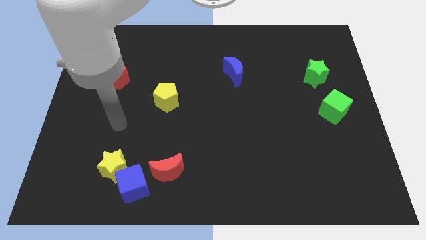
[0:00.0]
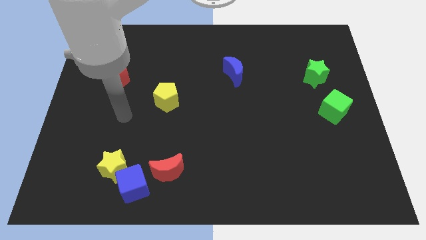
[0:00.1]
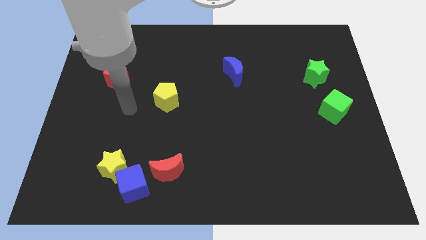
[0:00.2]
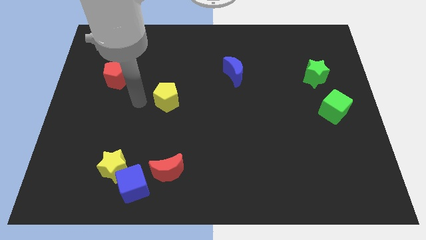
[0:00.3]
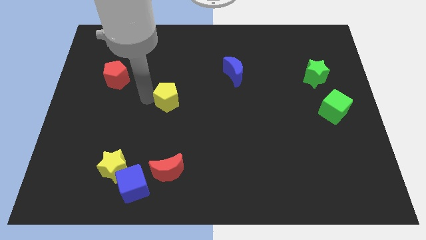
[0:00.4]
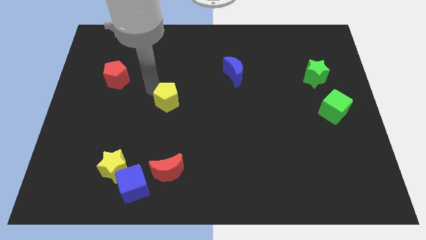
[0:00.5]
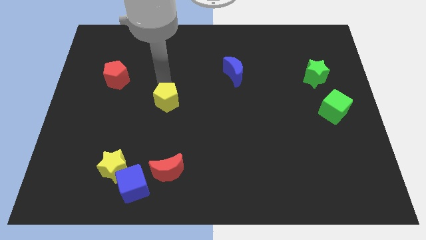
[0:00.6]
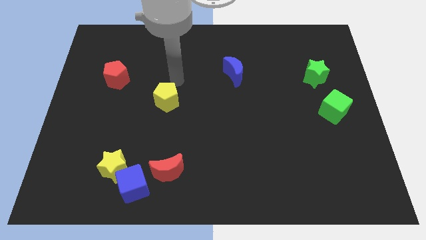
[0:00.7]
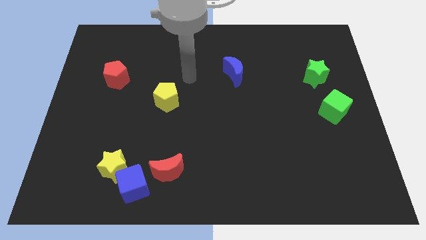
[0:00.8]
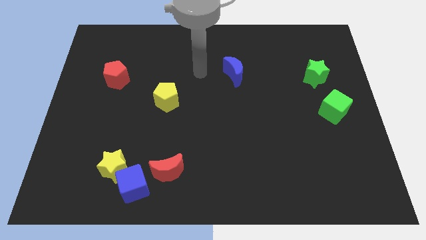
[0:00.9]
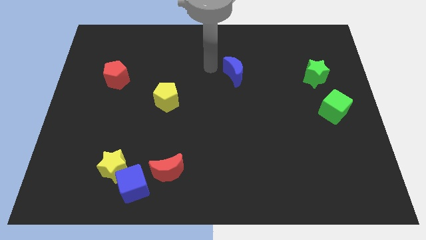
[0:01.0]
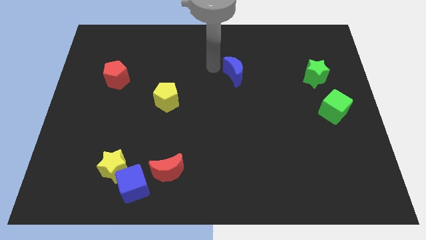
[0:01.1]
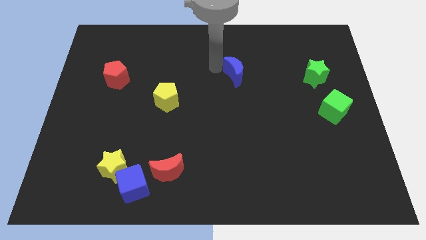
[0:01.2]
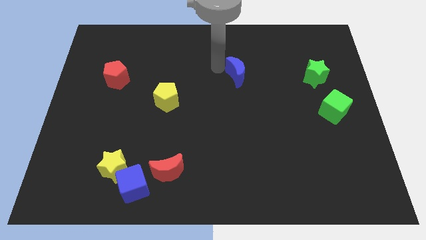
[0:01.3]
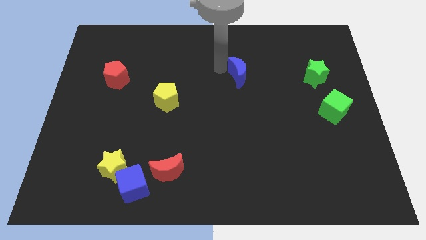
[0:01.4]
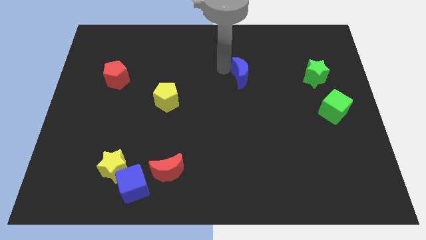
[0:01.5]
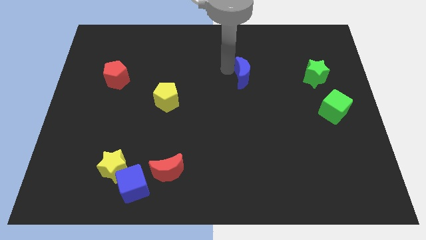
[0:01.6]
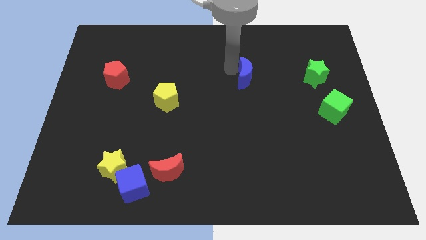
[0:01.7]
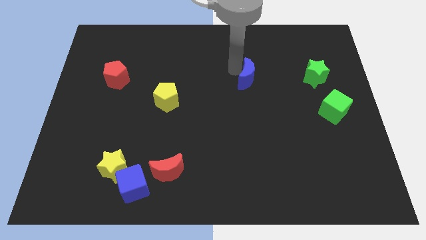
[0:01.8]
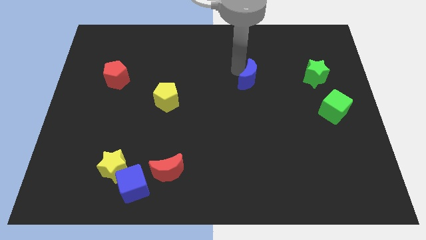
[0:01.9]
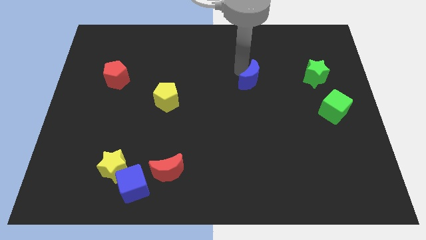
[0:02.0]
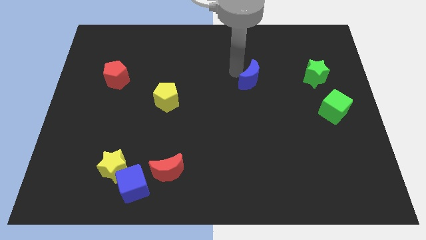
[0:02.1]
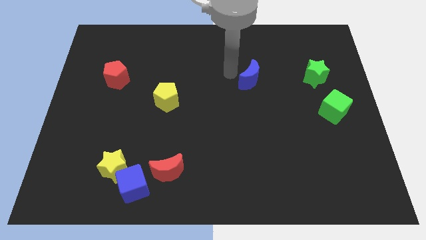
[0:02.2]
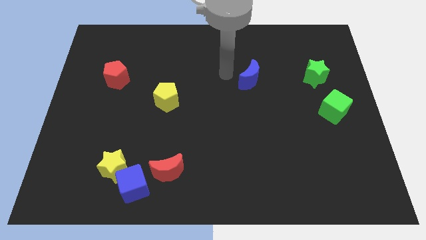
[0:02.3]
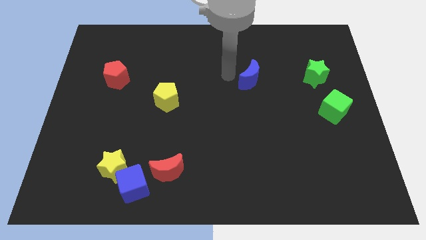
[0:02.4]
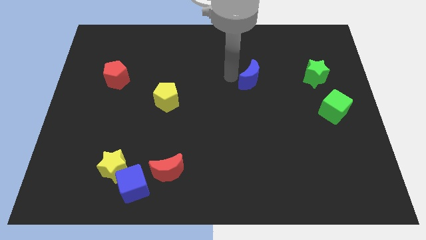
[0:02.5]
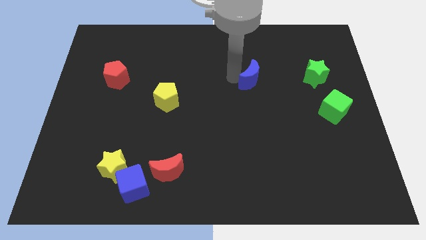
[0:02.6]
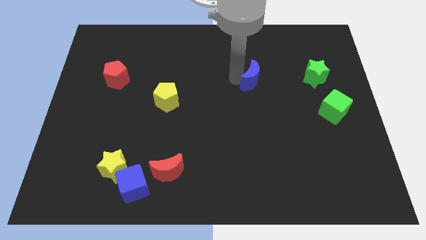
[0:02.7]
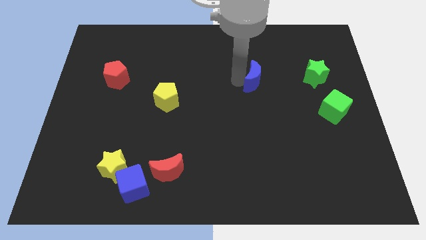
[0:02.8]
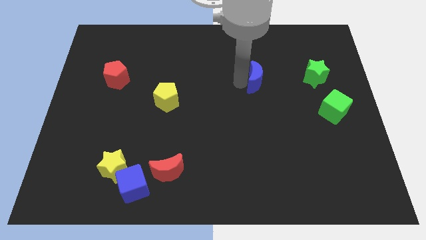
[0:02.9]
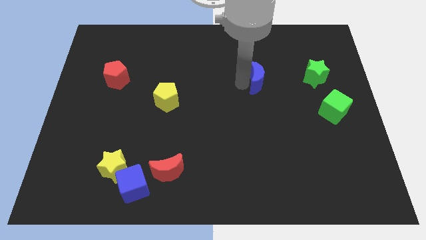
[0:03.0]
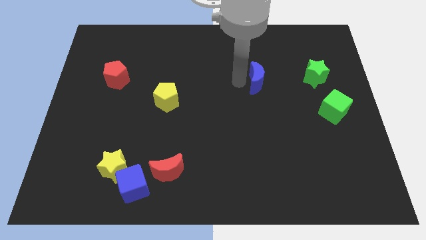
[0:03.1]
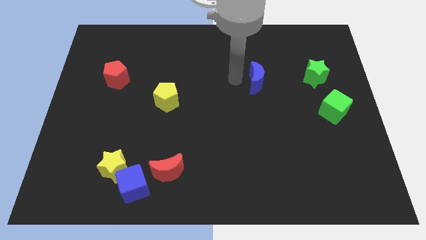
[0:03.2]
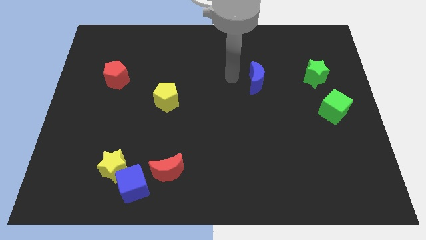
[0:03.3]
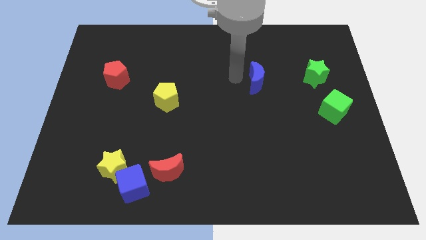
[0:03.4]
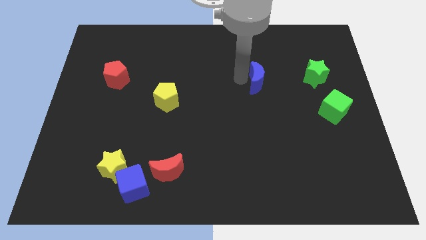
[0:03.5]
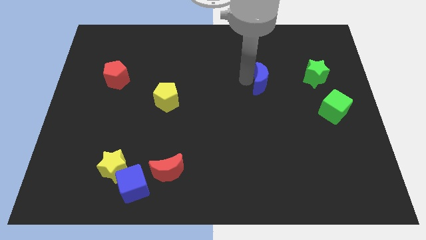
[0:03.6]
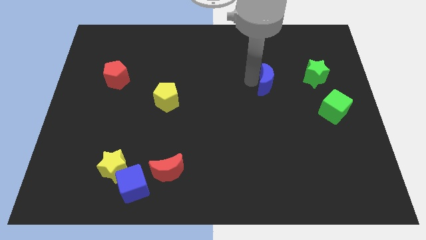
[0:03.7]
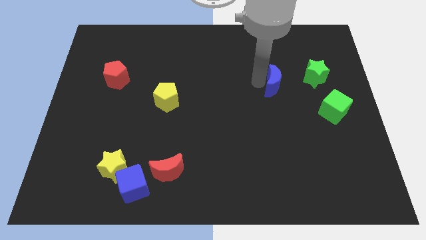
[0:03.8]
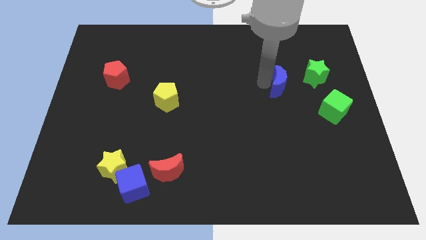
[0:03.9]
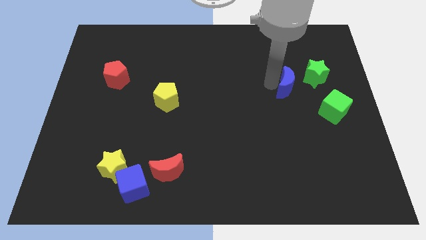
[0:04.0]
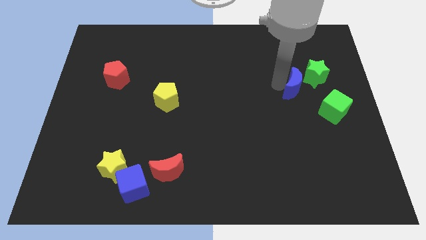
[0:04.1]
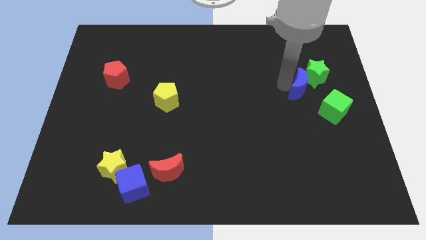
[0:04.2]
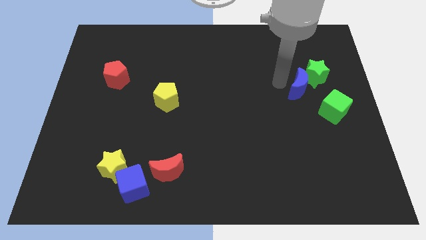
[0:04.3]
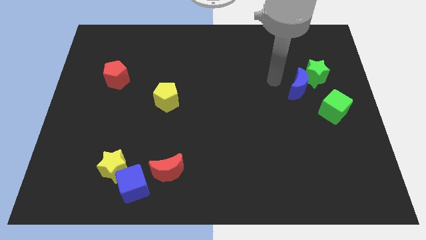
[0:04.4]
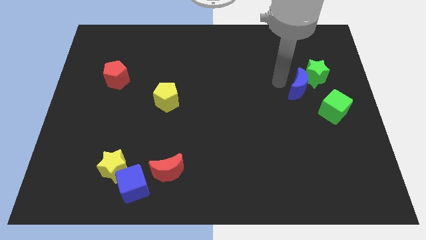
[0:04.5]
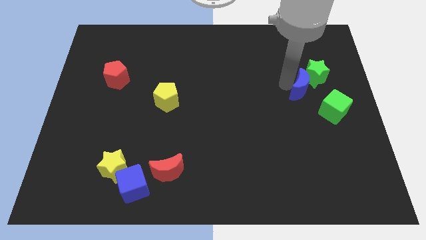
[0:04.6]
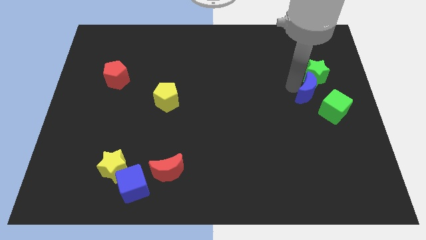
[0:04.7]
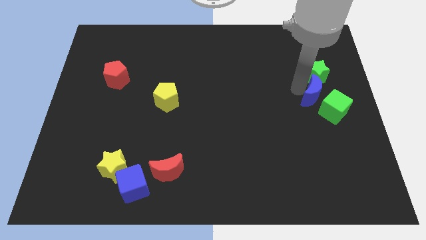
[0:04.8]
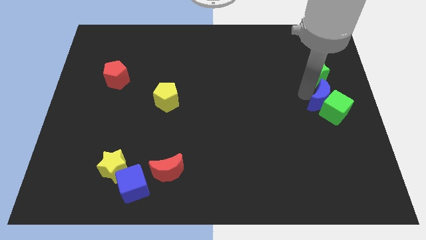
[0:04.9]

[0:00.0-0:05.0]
slide the blue moon to the right side
